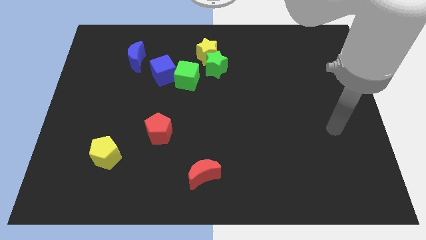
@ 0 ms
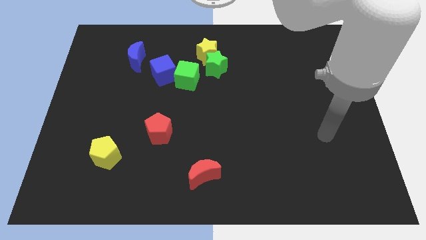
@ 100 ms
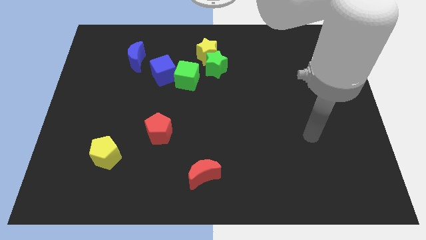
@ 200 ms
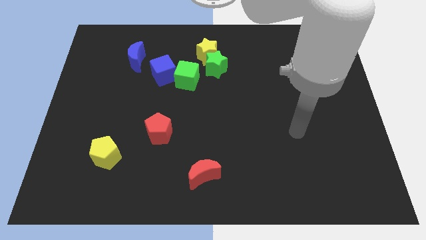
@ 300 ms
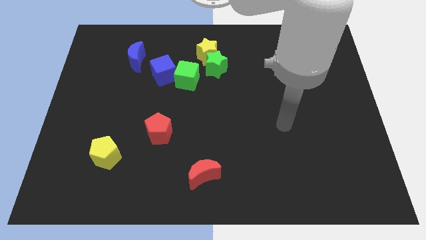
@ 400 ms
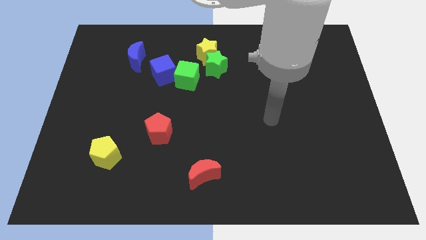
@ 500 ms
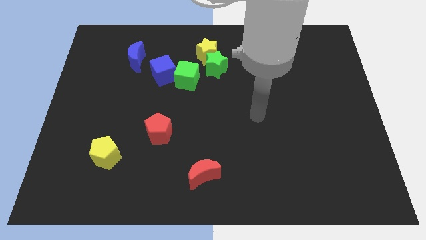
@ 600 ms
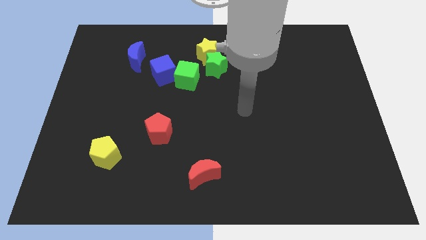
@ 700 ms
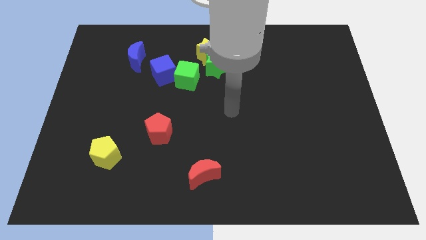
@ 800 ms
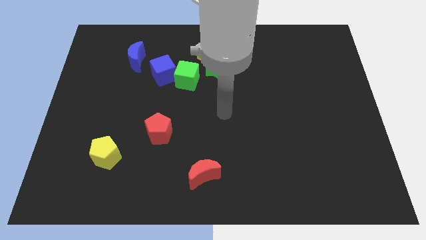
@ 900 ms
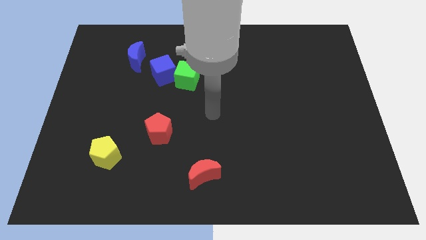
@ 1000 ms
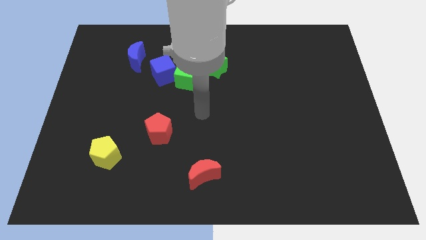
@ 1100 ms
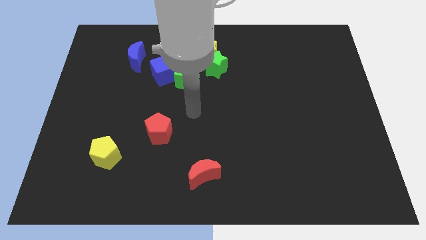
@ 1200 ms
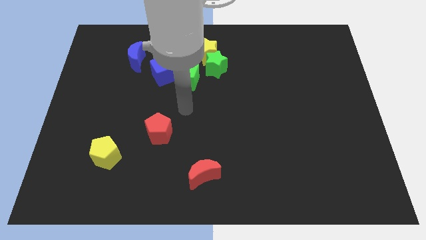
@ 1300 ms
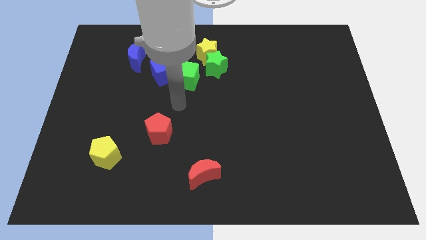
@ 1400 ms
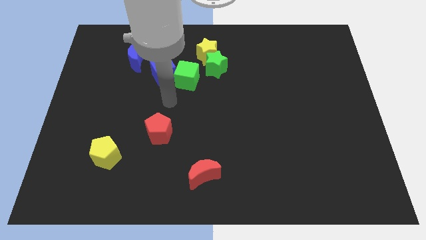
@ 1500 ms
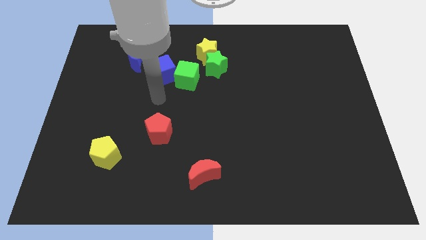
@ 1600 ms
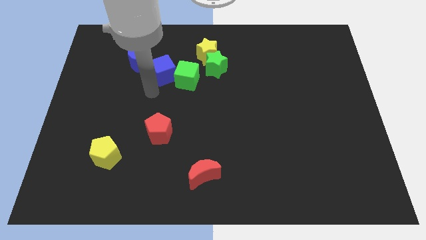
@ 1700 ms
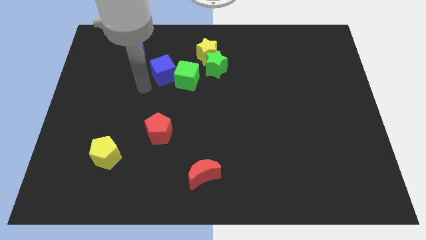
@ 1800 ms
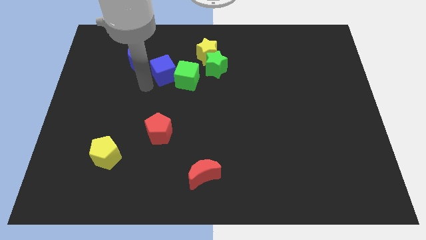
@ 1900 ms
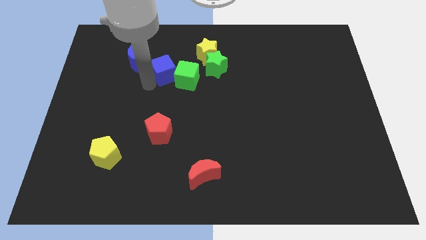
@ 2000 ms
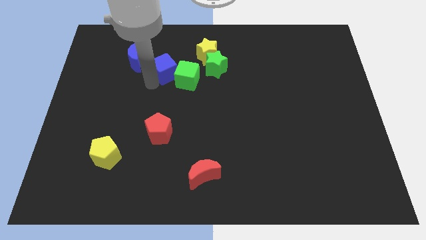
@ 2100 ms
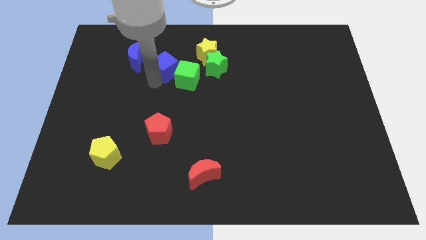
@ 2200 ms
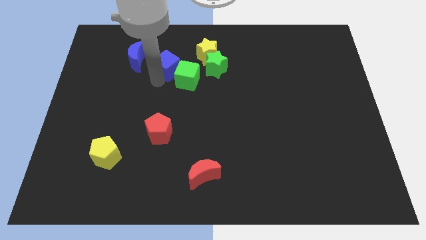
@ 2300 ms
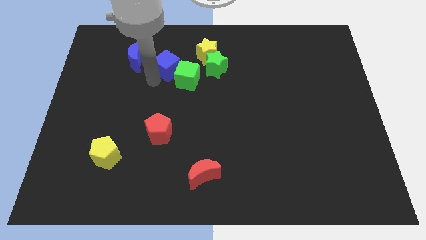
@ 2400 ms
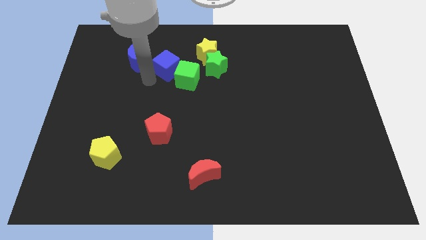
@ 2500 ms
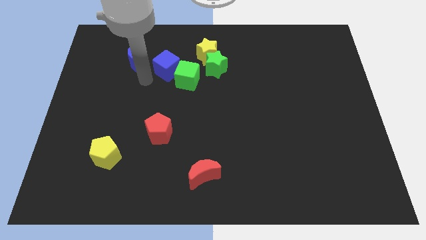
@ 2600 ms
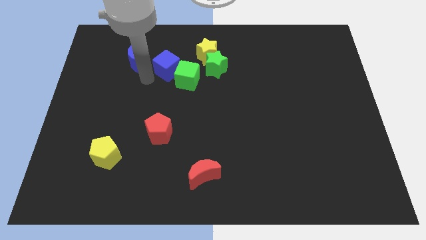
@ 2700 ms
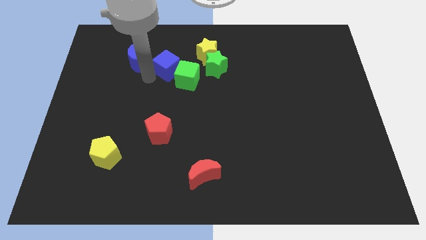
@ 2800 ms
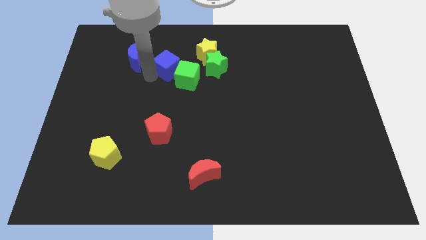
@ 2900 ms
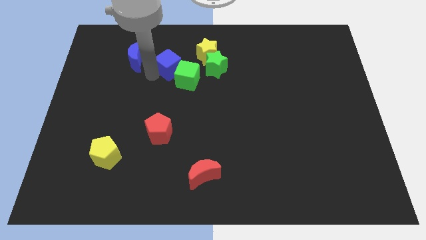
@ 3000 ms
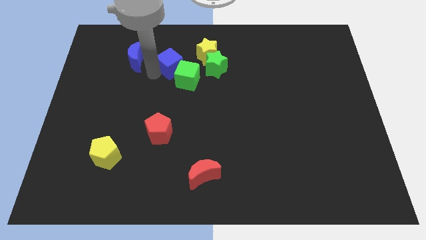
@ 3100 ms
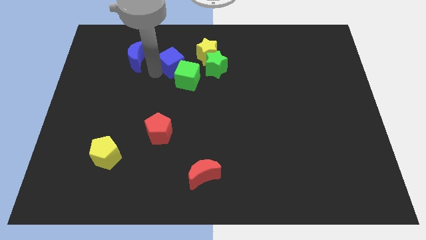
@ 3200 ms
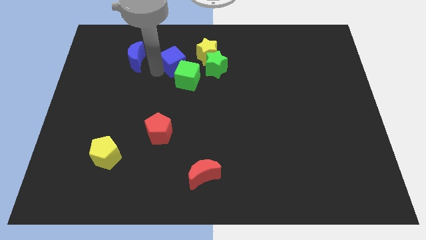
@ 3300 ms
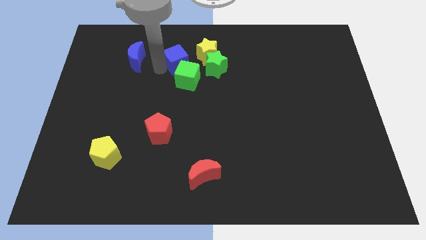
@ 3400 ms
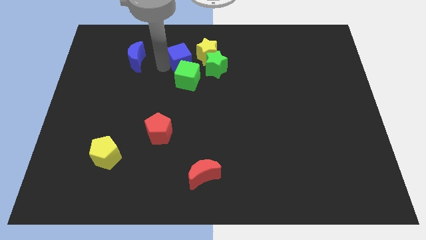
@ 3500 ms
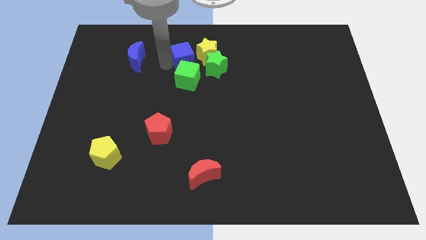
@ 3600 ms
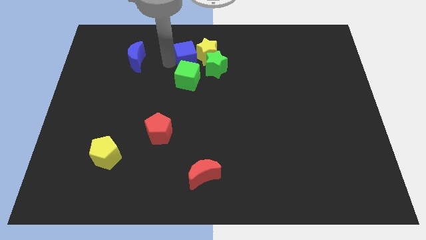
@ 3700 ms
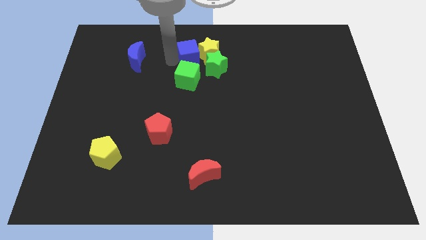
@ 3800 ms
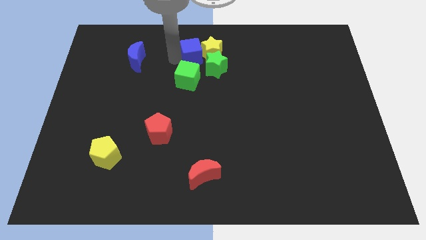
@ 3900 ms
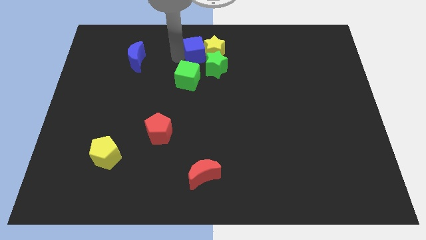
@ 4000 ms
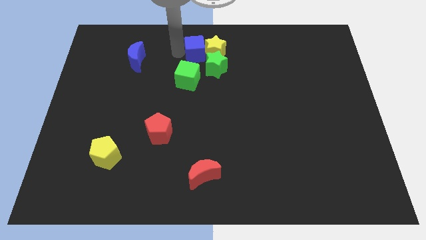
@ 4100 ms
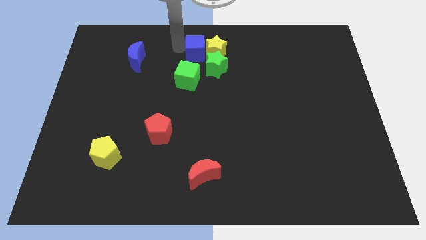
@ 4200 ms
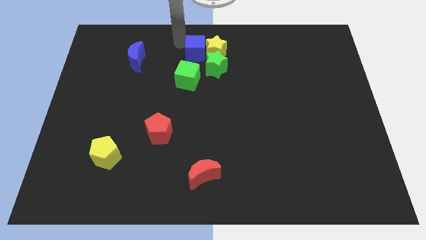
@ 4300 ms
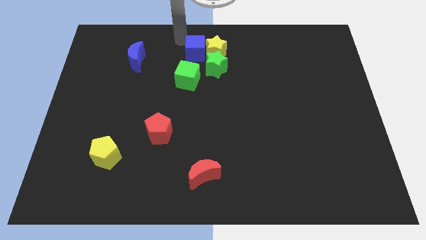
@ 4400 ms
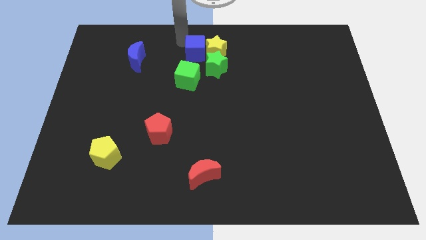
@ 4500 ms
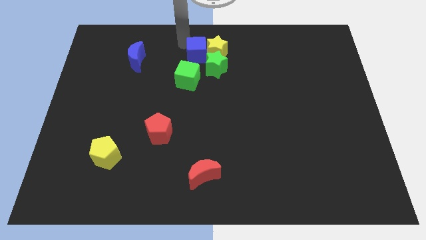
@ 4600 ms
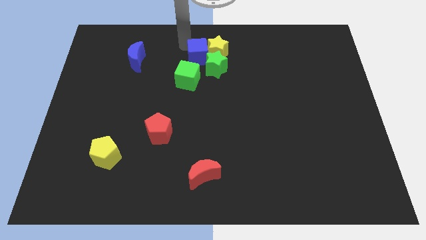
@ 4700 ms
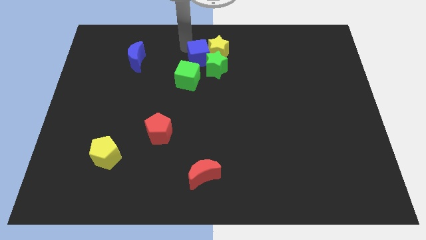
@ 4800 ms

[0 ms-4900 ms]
put the blue cube to the green star

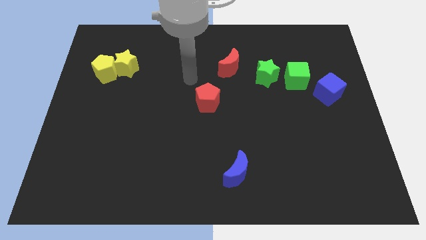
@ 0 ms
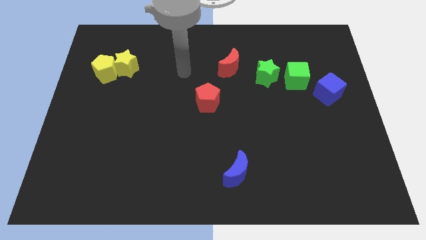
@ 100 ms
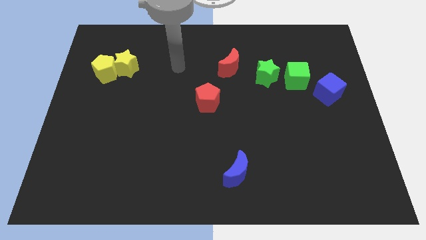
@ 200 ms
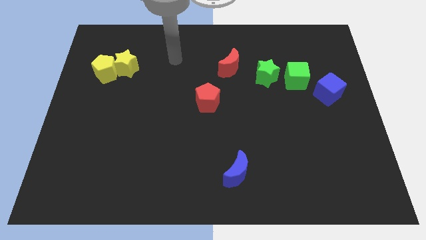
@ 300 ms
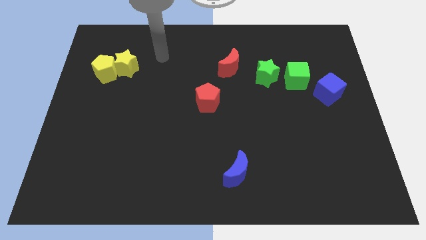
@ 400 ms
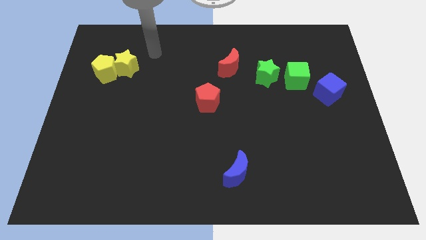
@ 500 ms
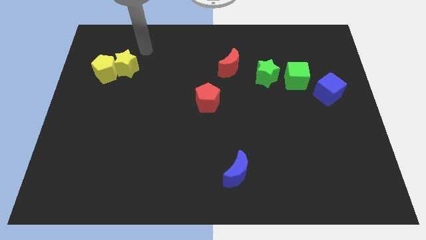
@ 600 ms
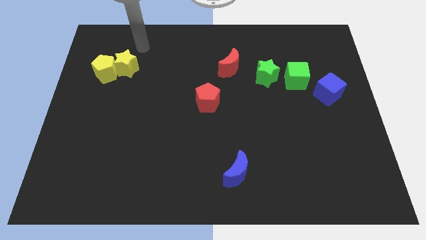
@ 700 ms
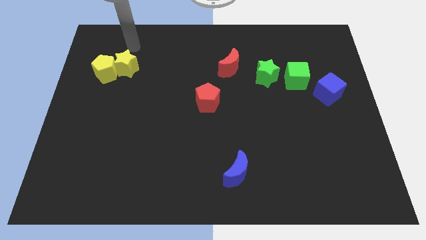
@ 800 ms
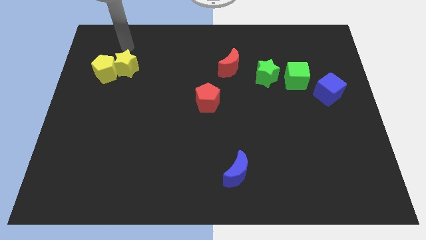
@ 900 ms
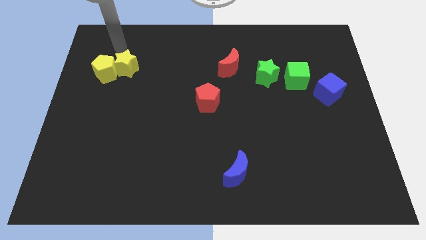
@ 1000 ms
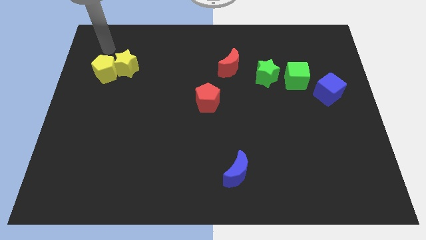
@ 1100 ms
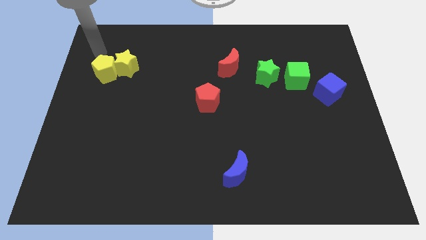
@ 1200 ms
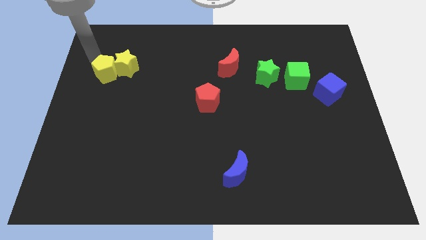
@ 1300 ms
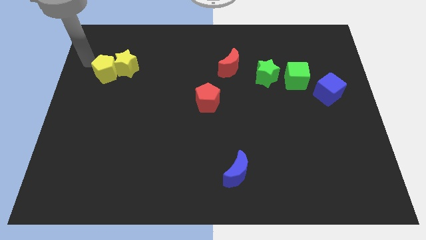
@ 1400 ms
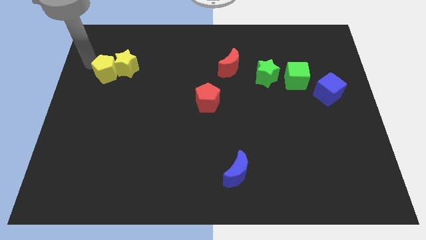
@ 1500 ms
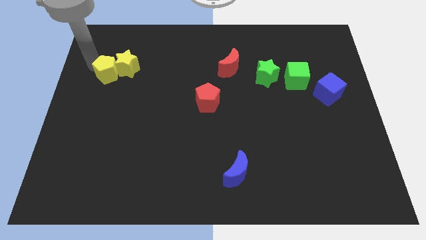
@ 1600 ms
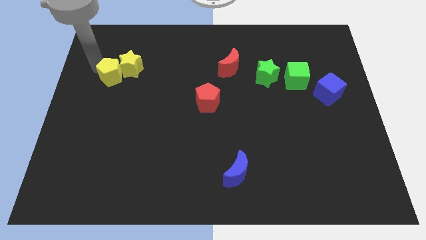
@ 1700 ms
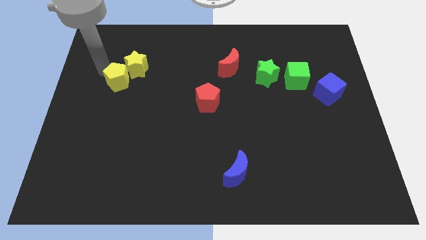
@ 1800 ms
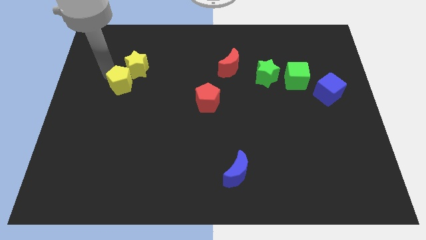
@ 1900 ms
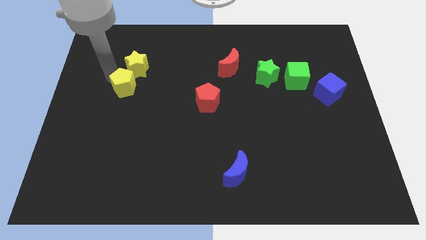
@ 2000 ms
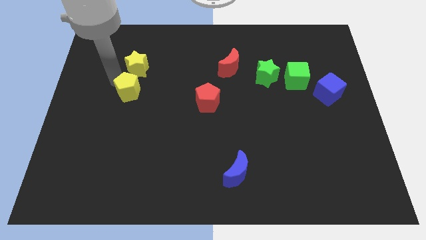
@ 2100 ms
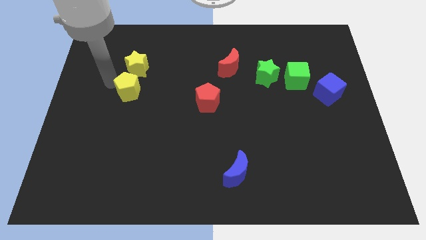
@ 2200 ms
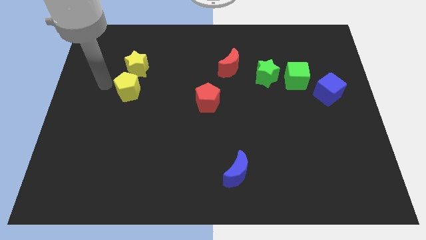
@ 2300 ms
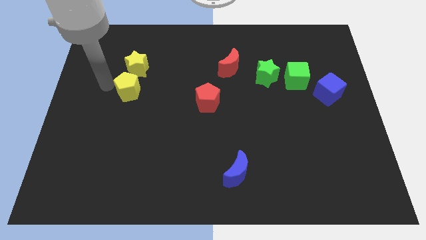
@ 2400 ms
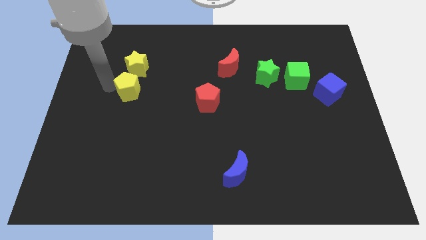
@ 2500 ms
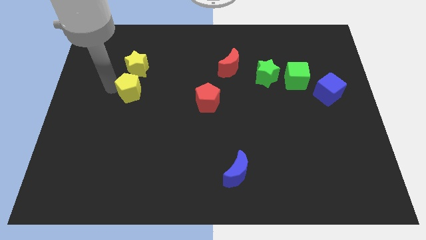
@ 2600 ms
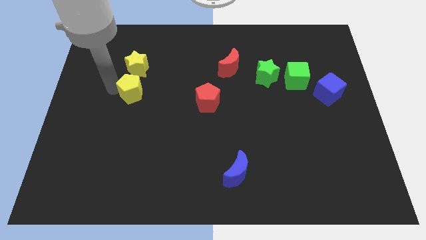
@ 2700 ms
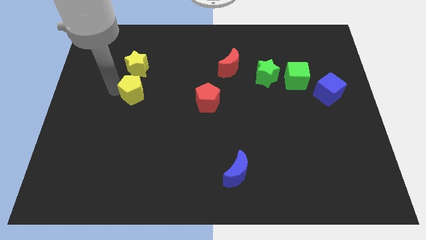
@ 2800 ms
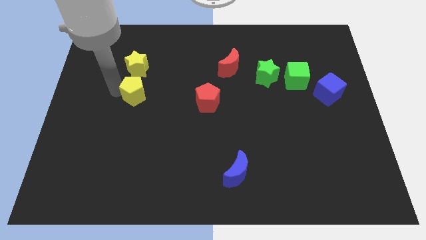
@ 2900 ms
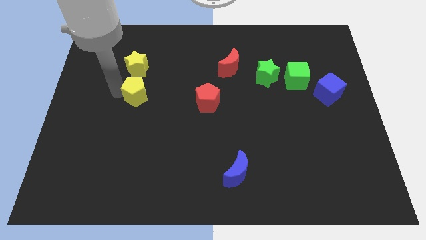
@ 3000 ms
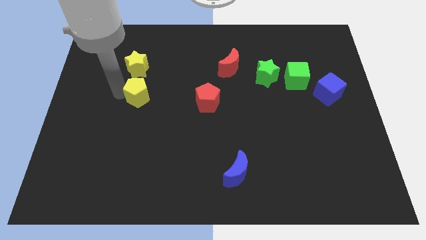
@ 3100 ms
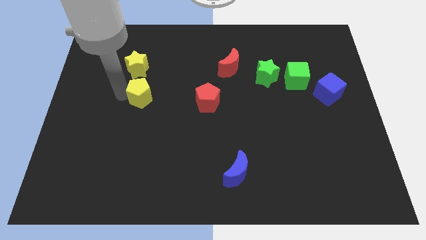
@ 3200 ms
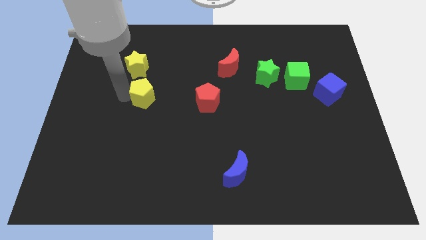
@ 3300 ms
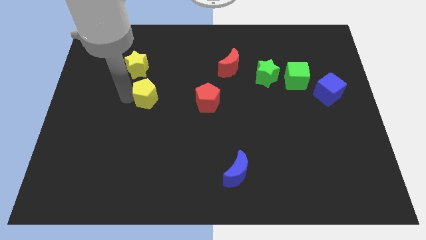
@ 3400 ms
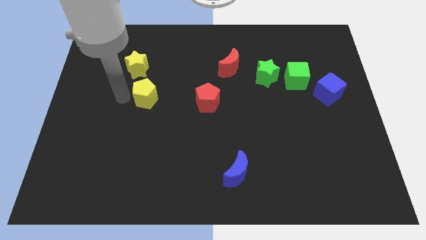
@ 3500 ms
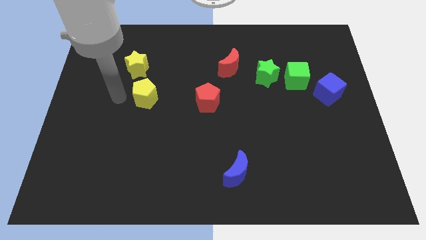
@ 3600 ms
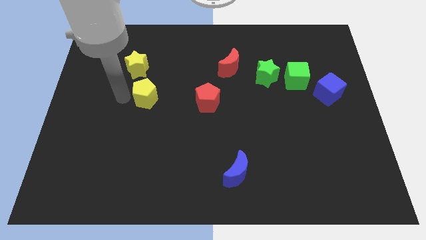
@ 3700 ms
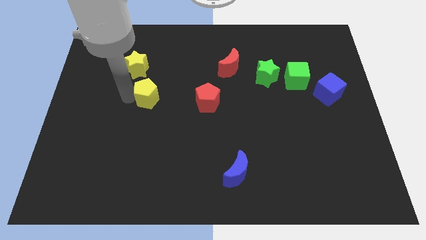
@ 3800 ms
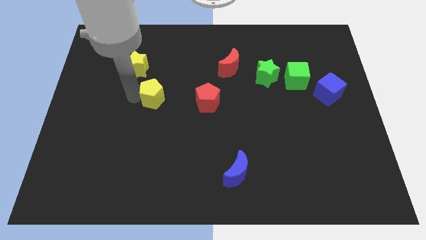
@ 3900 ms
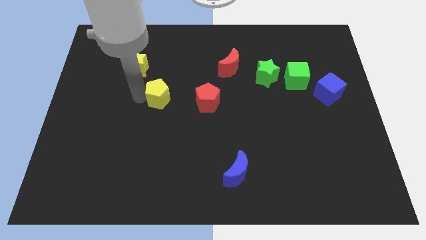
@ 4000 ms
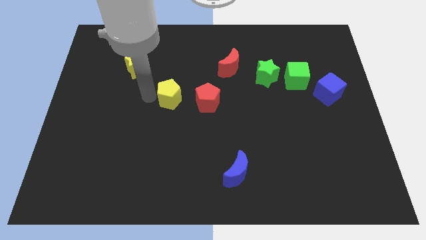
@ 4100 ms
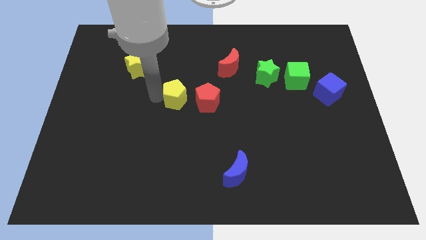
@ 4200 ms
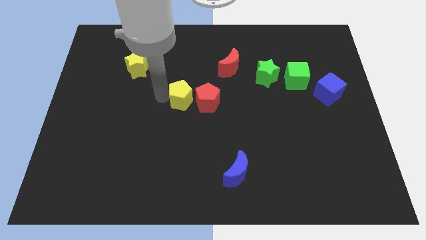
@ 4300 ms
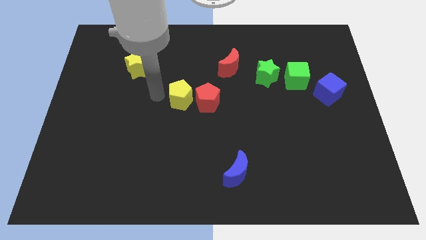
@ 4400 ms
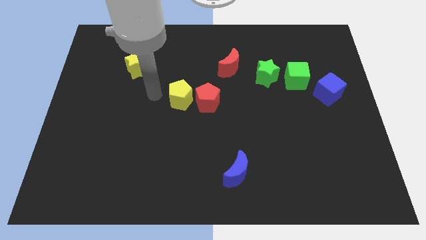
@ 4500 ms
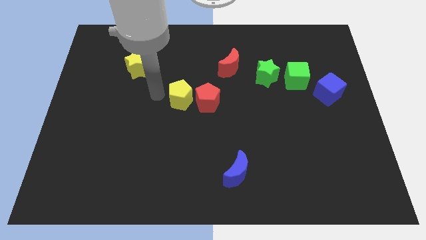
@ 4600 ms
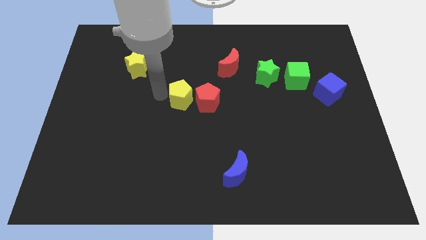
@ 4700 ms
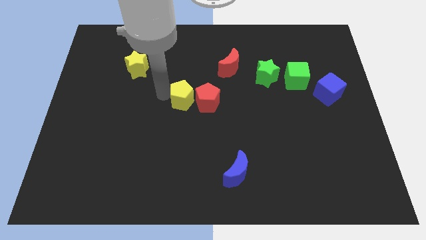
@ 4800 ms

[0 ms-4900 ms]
move the yellow pentagon towards the red pentagon
